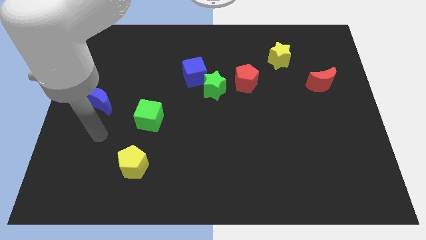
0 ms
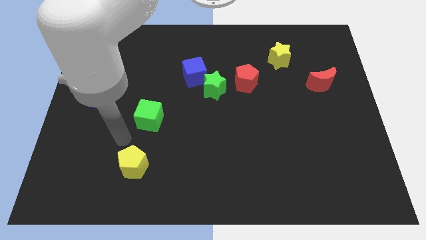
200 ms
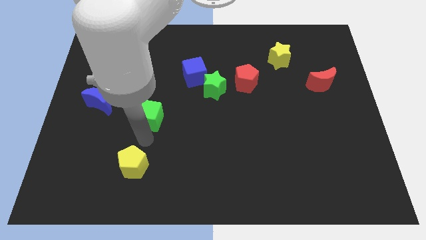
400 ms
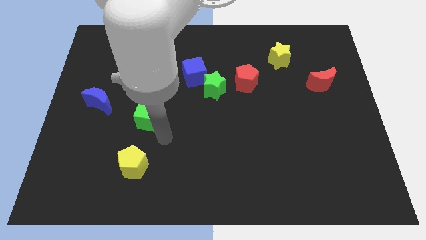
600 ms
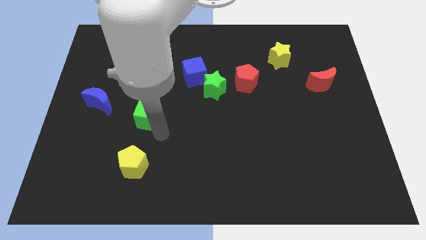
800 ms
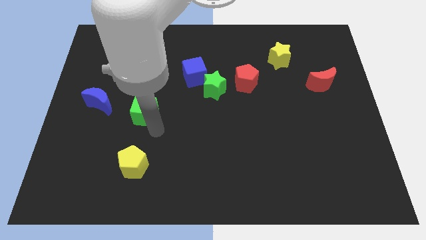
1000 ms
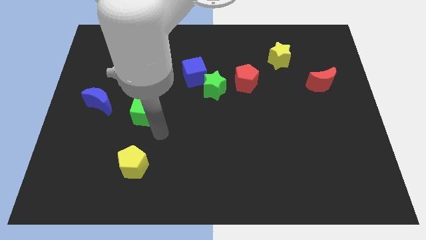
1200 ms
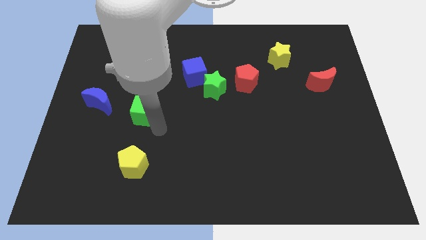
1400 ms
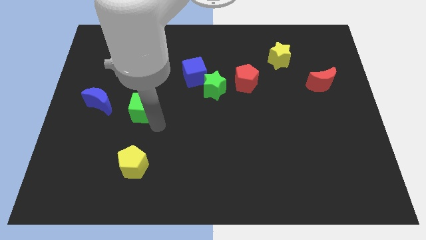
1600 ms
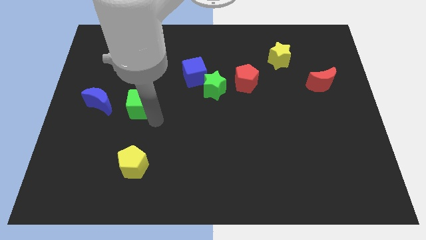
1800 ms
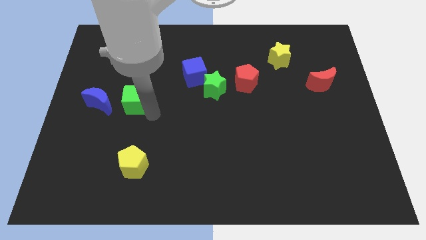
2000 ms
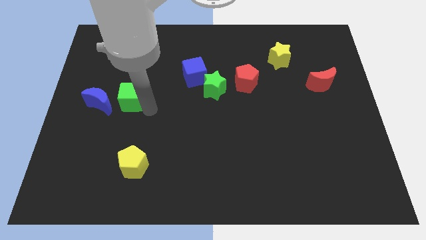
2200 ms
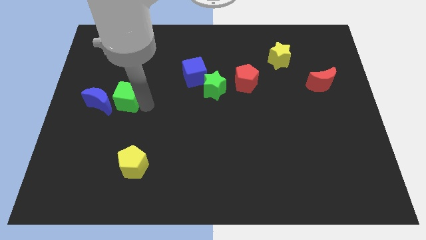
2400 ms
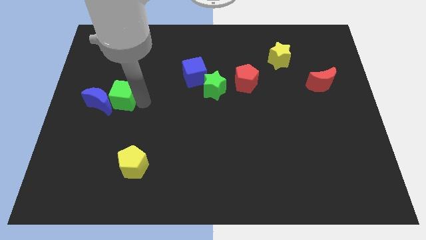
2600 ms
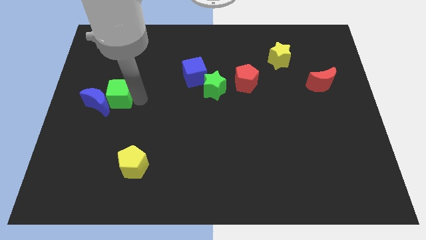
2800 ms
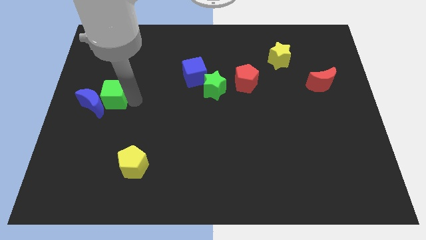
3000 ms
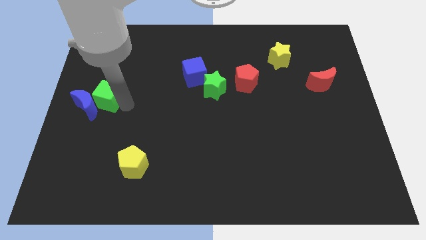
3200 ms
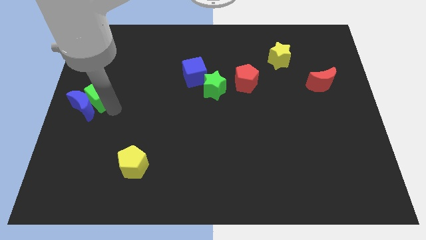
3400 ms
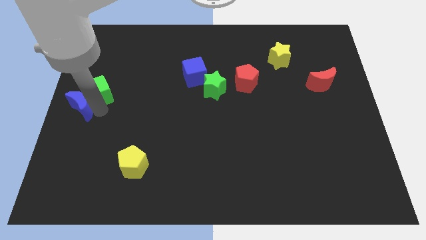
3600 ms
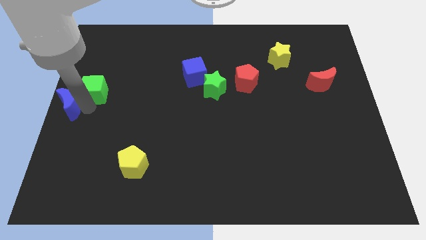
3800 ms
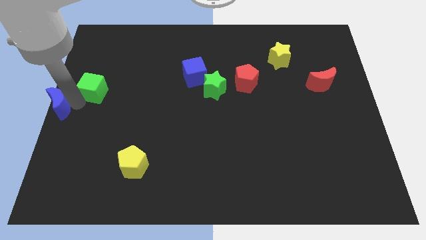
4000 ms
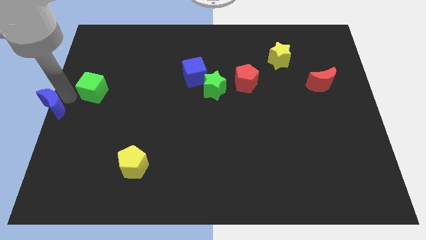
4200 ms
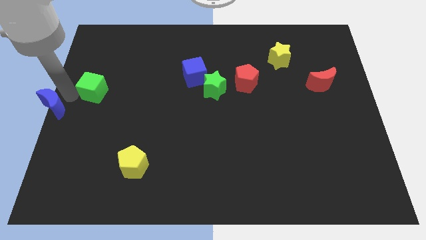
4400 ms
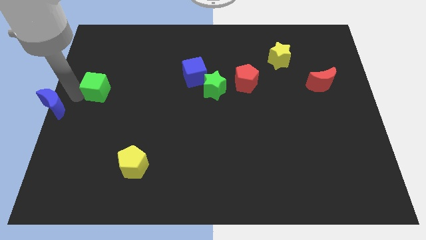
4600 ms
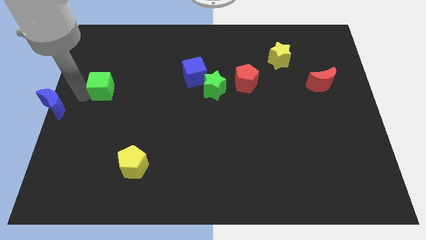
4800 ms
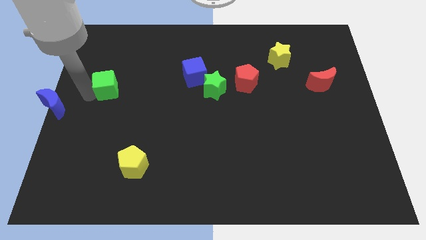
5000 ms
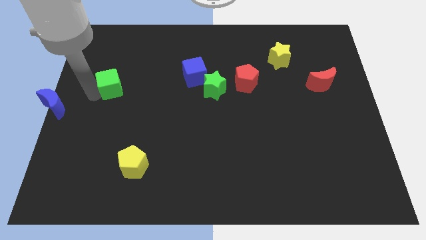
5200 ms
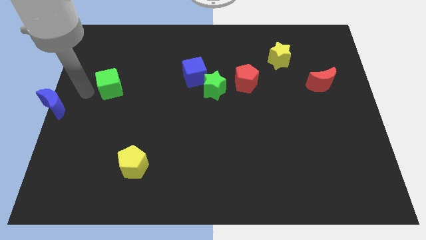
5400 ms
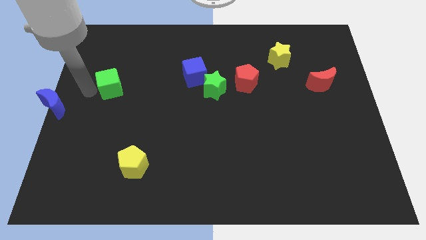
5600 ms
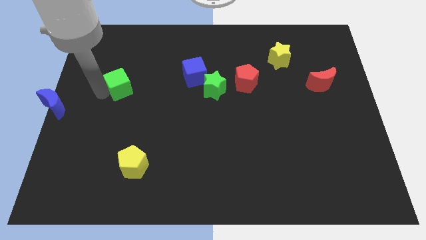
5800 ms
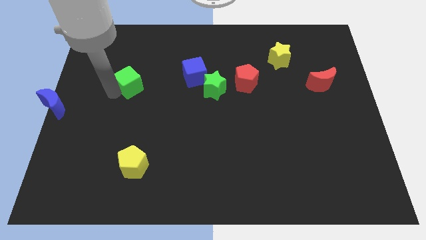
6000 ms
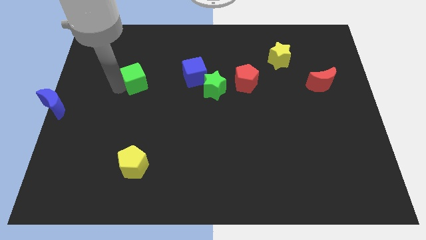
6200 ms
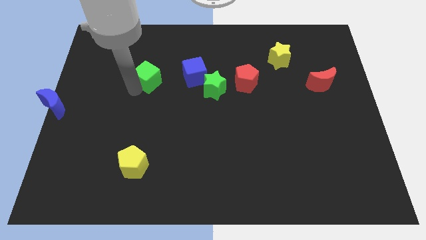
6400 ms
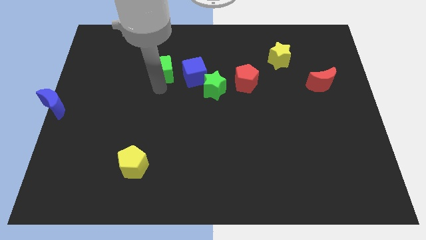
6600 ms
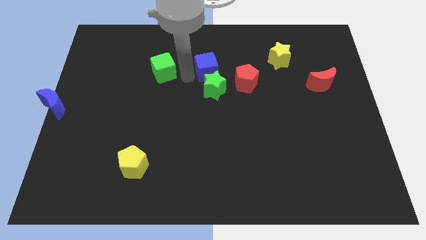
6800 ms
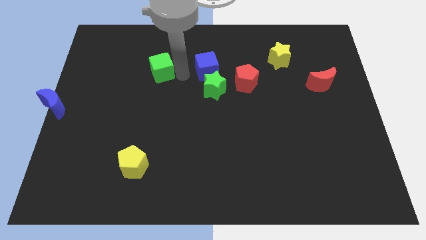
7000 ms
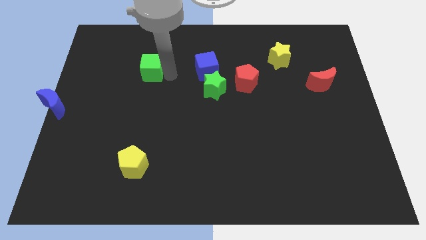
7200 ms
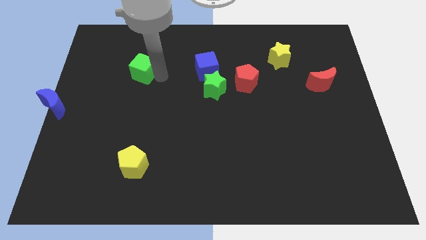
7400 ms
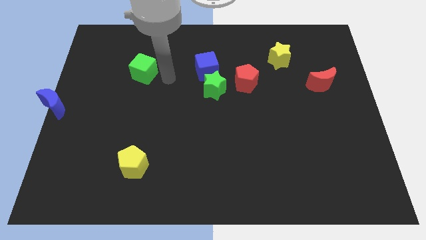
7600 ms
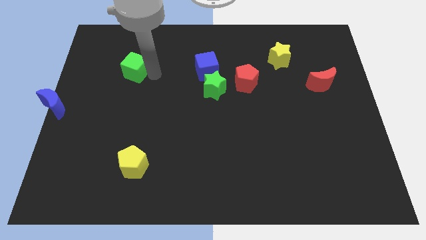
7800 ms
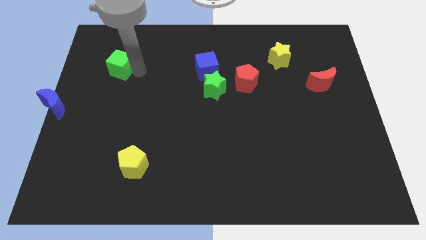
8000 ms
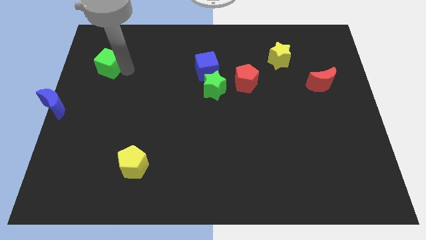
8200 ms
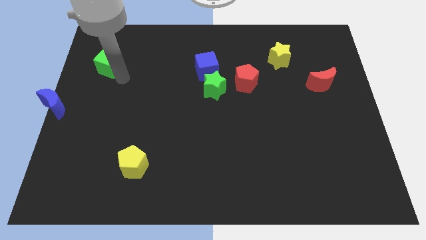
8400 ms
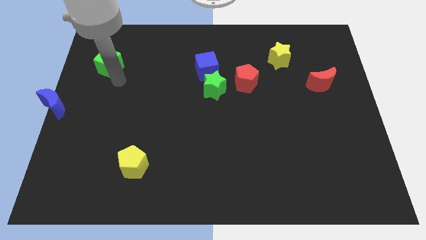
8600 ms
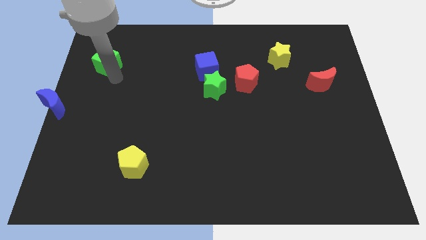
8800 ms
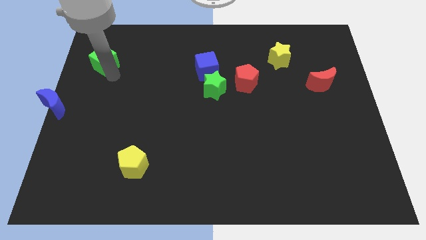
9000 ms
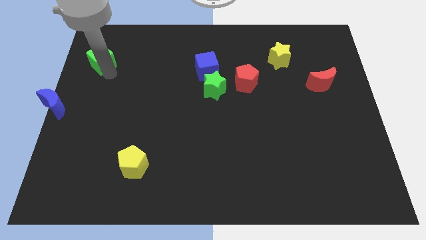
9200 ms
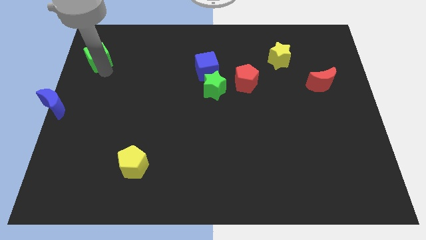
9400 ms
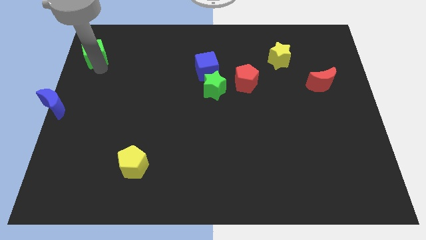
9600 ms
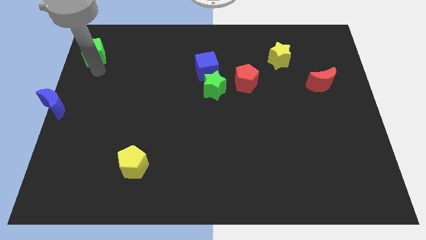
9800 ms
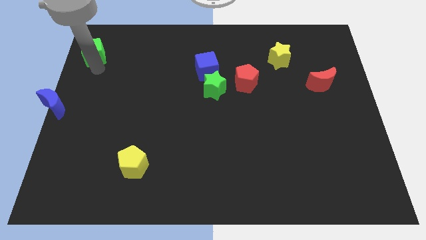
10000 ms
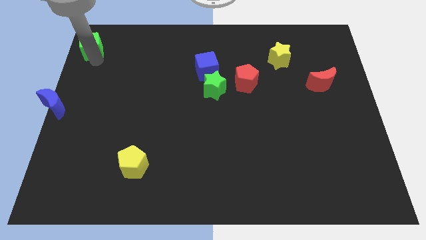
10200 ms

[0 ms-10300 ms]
move the green cube to the top left of the board

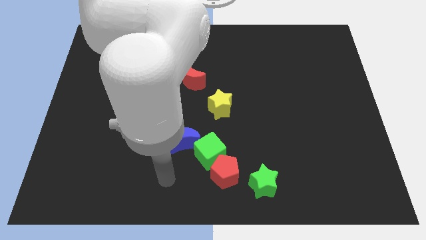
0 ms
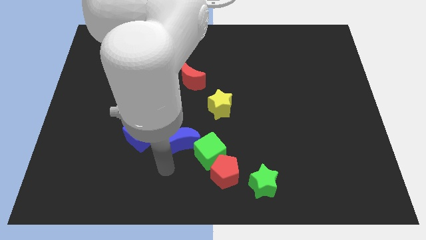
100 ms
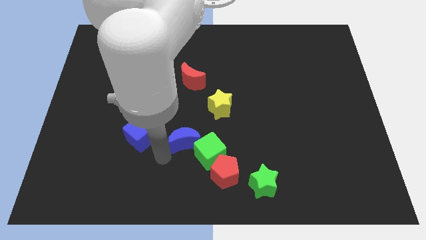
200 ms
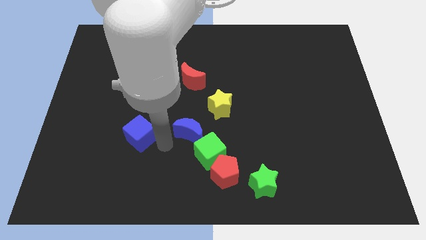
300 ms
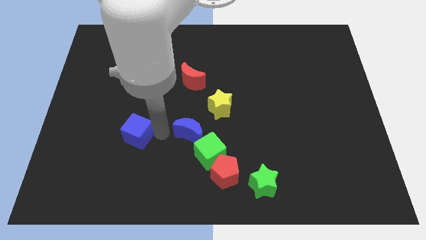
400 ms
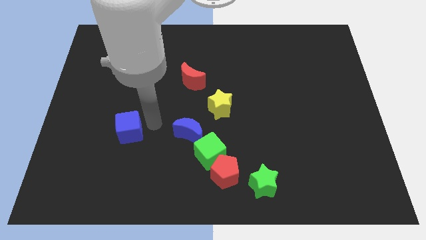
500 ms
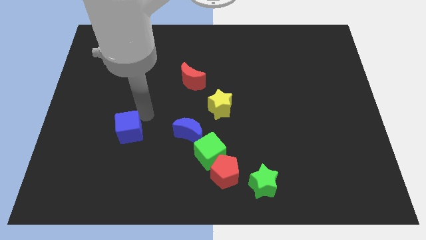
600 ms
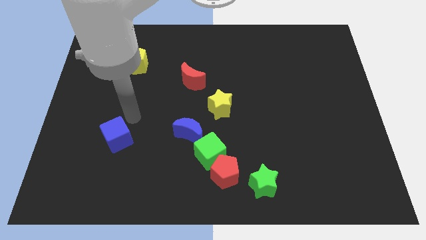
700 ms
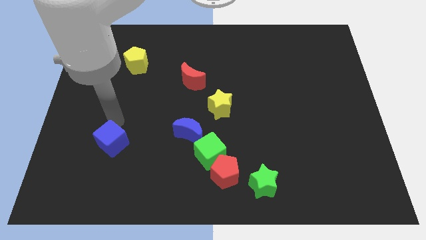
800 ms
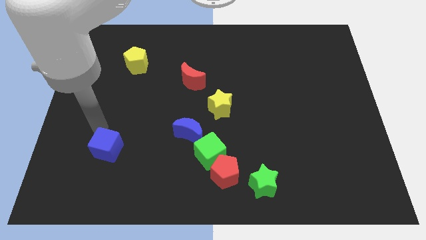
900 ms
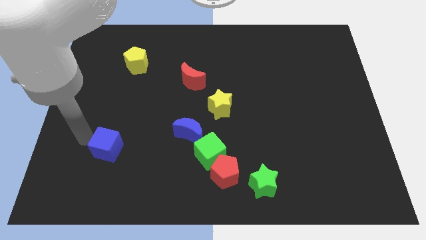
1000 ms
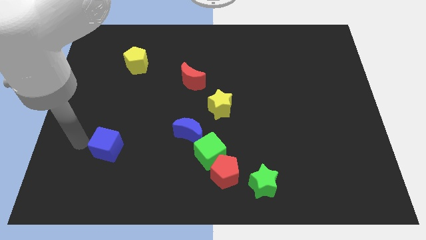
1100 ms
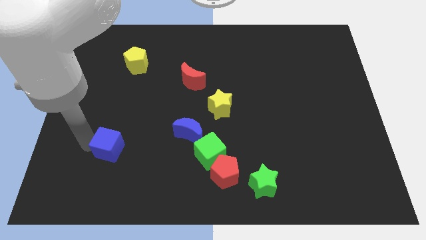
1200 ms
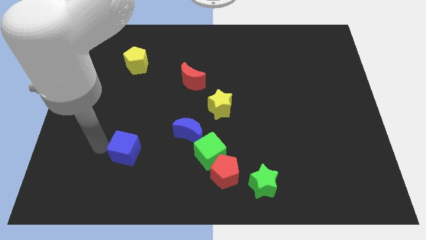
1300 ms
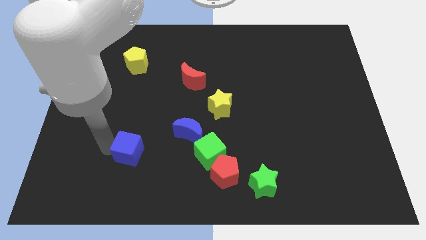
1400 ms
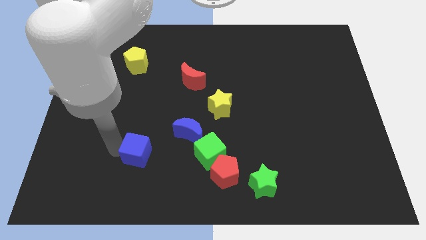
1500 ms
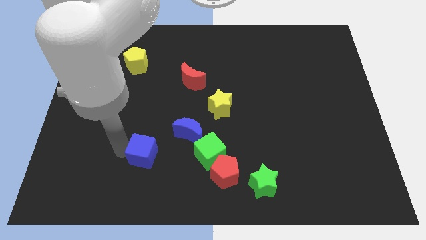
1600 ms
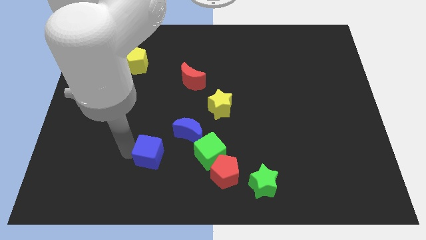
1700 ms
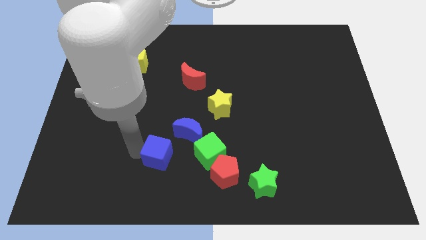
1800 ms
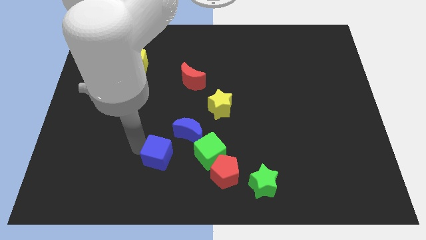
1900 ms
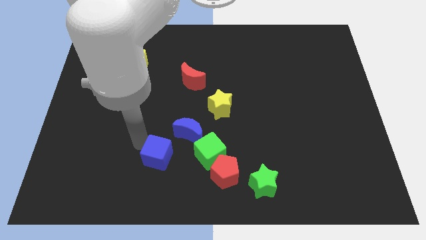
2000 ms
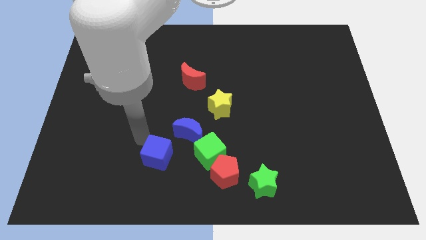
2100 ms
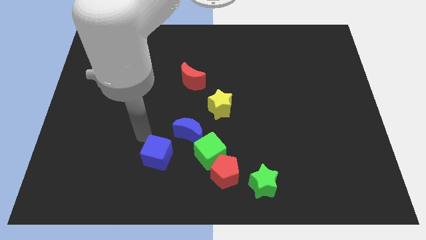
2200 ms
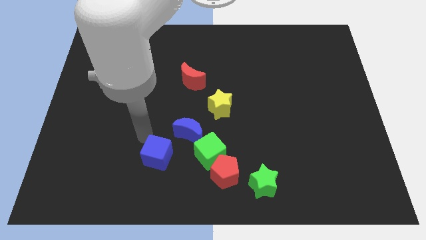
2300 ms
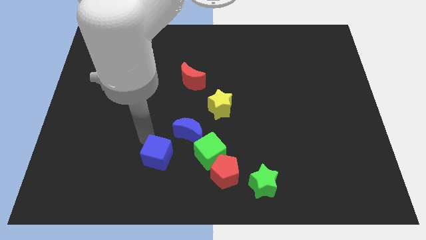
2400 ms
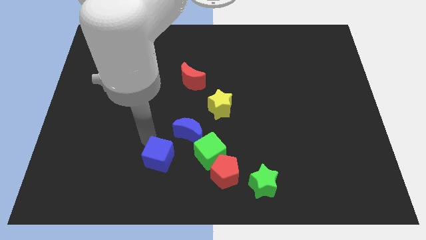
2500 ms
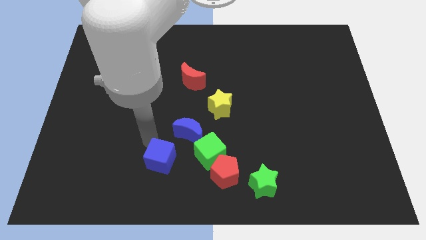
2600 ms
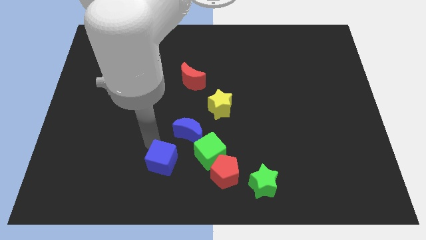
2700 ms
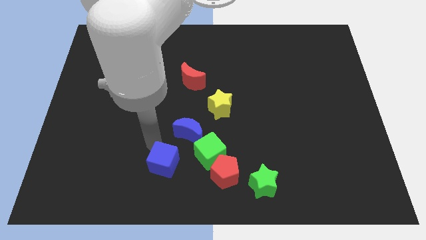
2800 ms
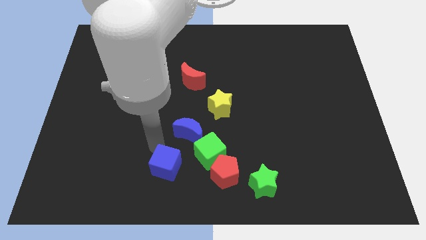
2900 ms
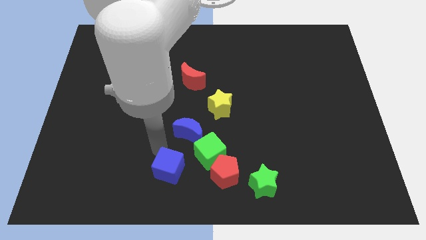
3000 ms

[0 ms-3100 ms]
slide the blue cube to the bottom side
